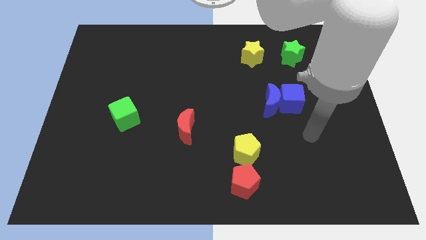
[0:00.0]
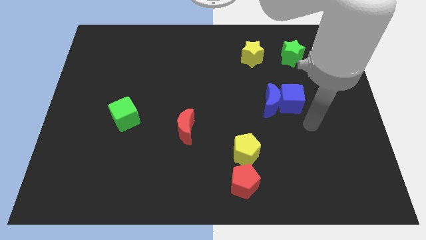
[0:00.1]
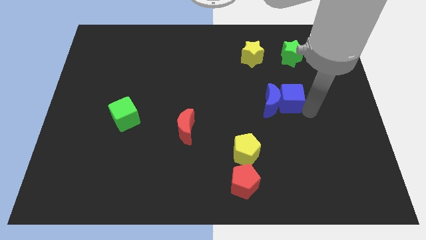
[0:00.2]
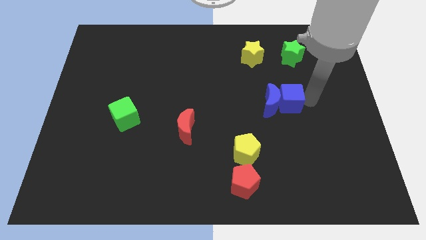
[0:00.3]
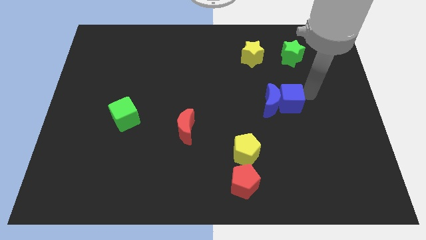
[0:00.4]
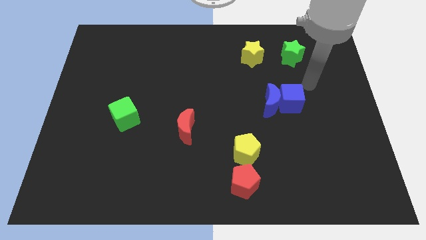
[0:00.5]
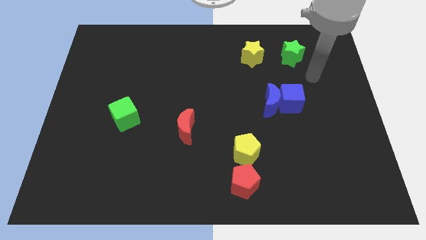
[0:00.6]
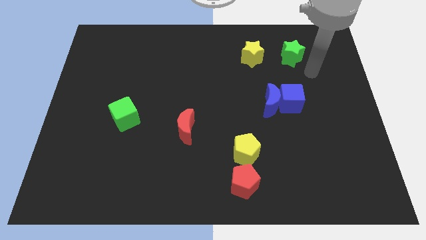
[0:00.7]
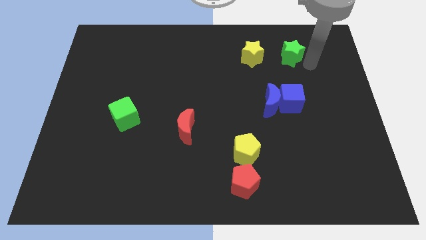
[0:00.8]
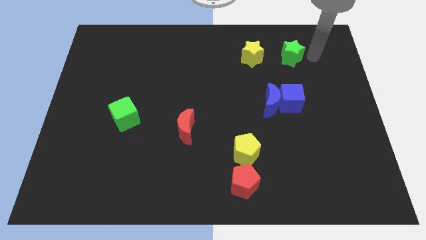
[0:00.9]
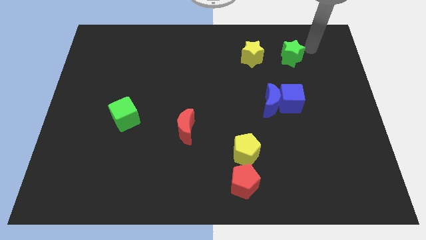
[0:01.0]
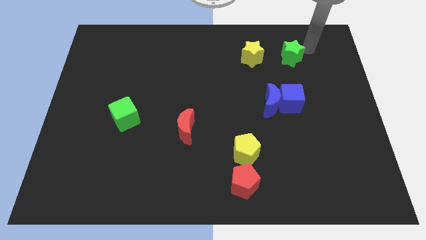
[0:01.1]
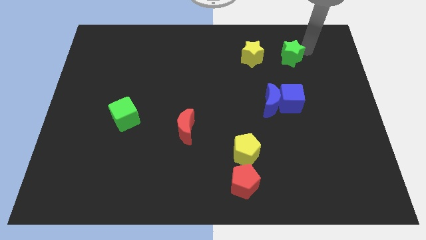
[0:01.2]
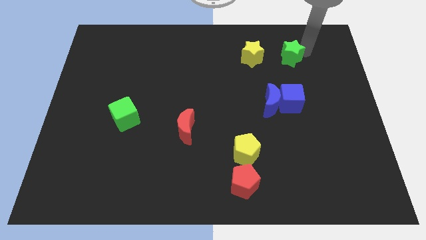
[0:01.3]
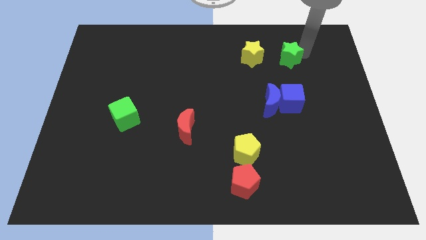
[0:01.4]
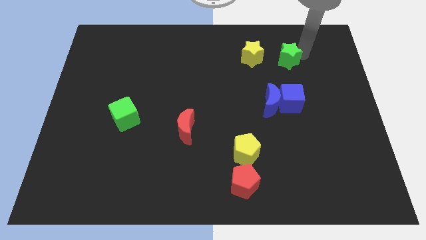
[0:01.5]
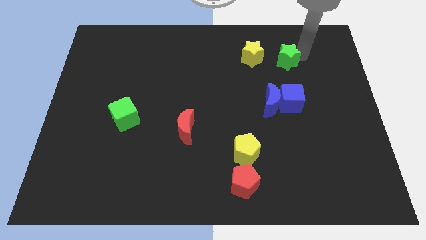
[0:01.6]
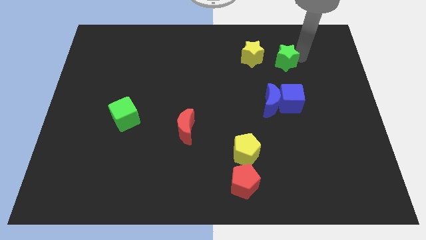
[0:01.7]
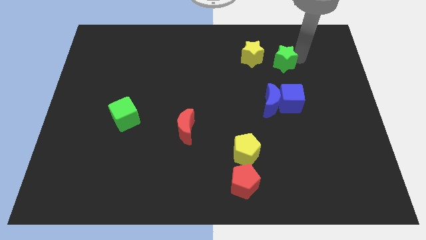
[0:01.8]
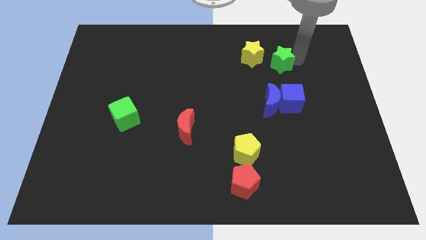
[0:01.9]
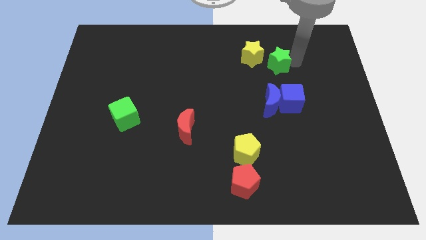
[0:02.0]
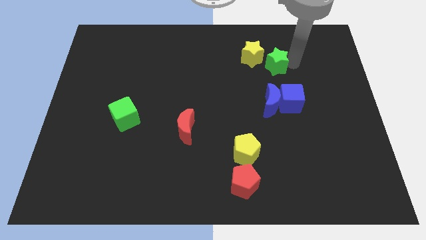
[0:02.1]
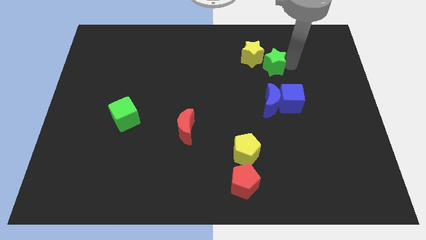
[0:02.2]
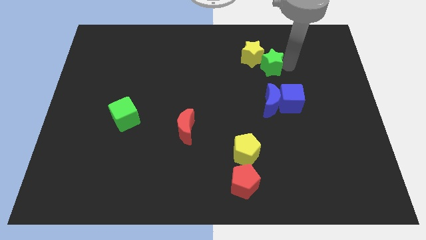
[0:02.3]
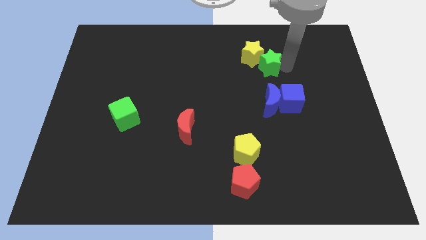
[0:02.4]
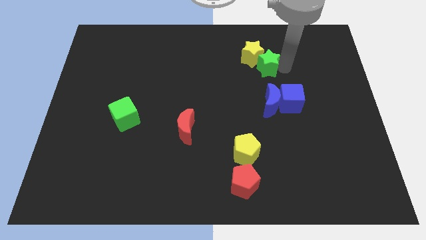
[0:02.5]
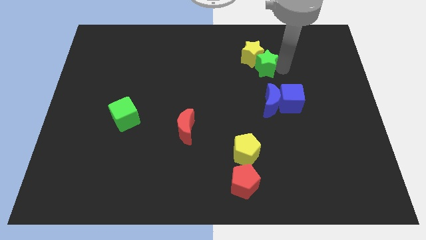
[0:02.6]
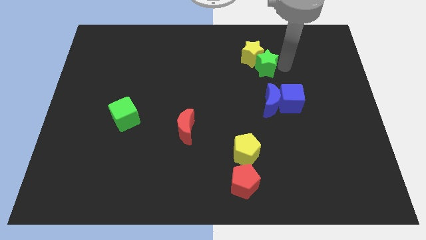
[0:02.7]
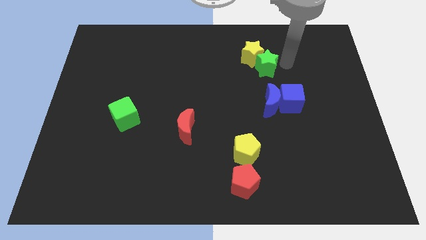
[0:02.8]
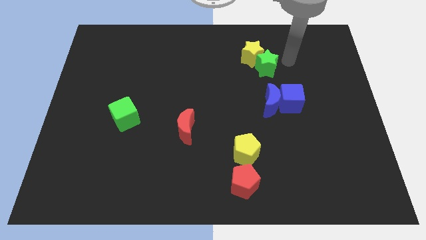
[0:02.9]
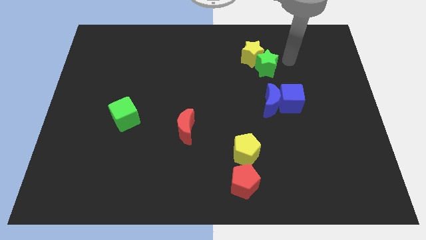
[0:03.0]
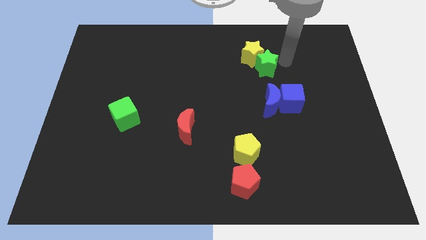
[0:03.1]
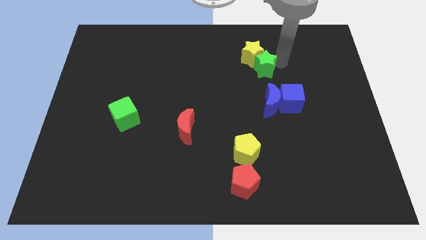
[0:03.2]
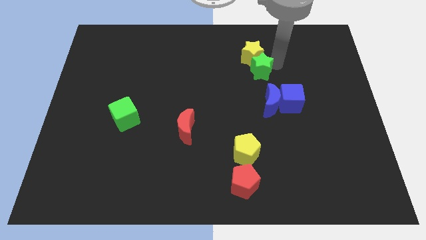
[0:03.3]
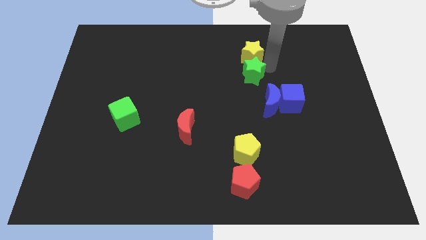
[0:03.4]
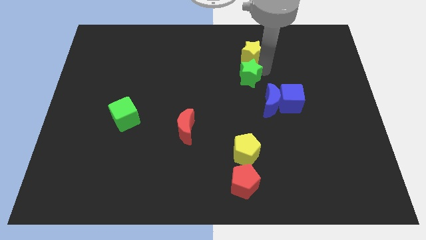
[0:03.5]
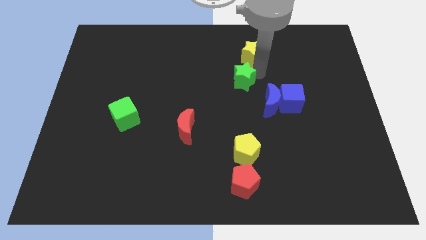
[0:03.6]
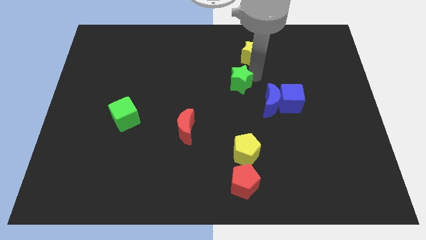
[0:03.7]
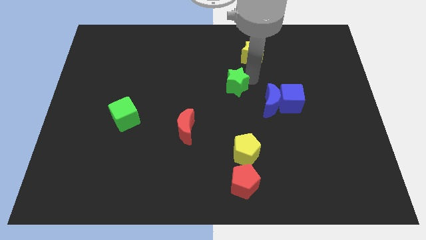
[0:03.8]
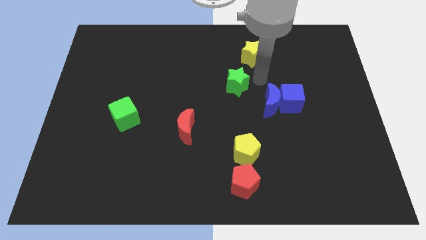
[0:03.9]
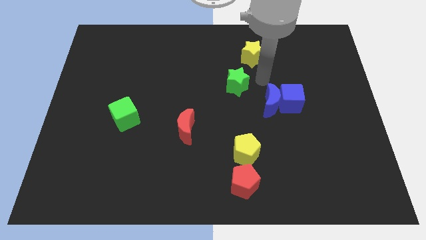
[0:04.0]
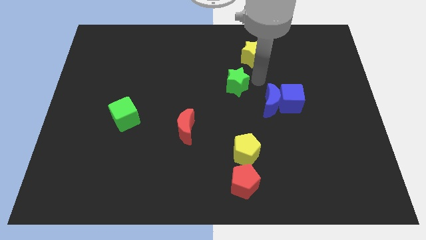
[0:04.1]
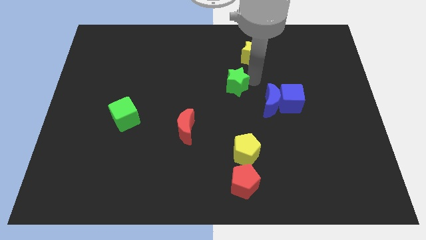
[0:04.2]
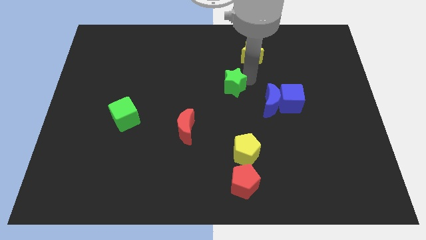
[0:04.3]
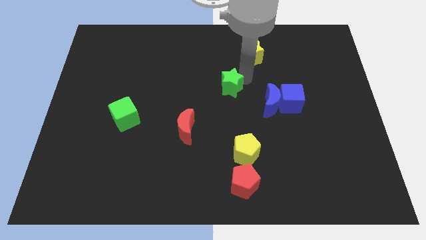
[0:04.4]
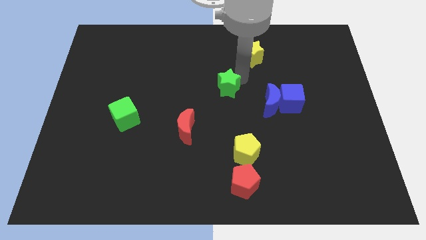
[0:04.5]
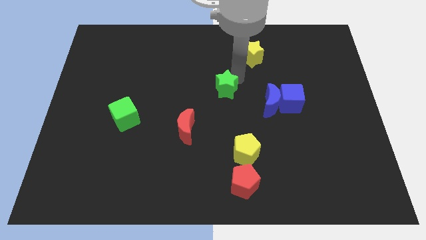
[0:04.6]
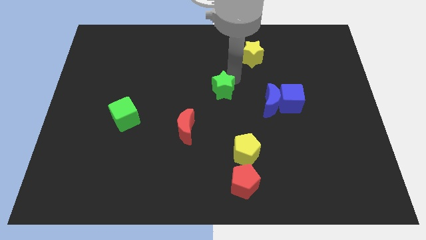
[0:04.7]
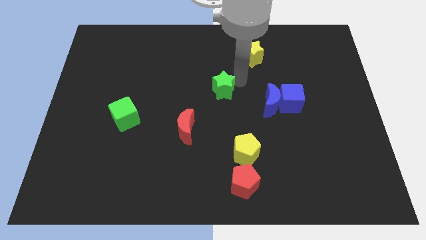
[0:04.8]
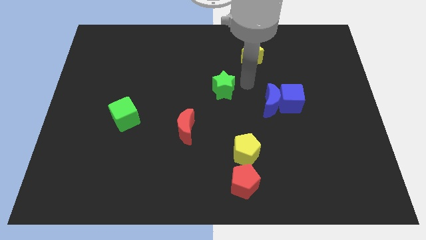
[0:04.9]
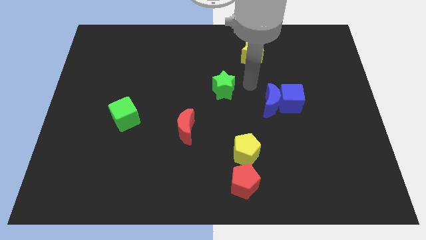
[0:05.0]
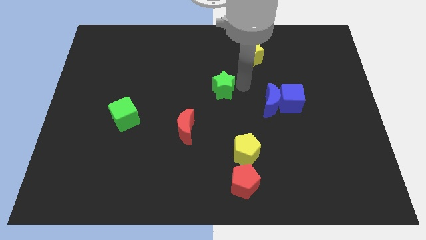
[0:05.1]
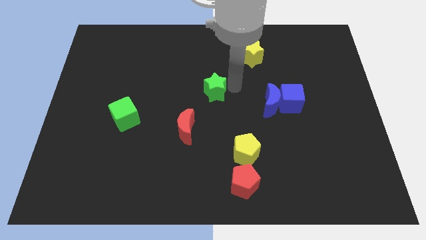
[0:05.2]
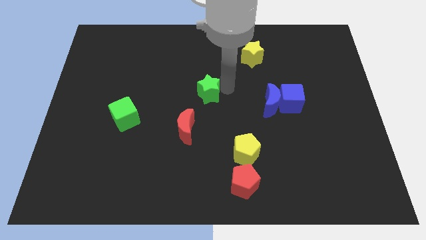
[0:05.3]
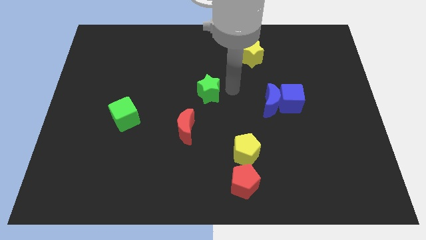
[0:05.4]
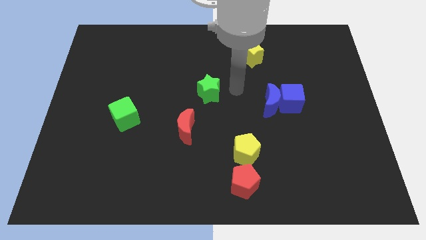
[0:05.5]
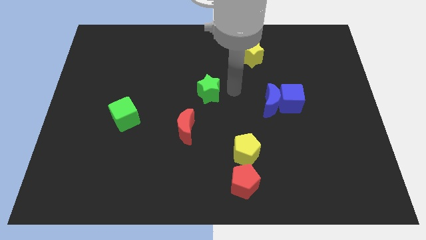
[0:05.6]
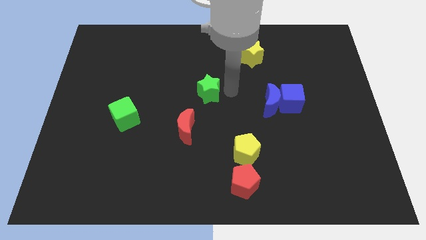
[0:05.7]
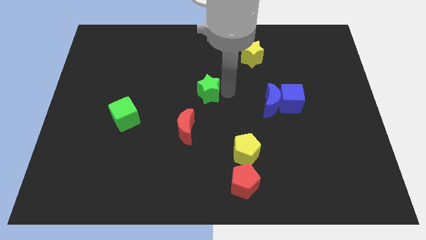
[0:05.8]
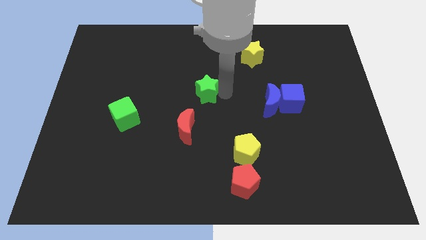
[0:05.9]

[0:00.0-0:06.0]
put the green star above the red moon

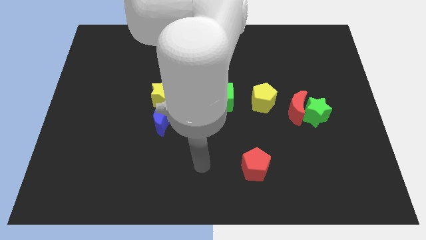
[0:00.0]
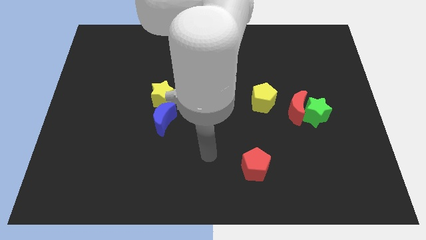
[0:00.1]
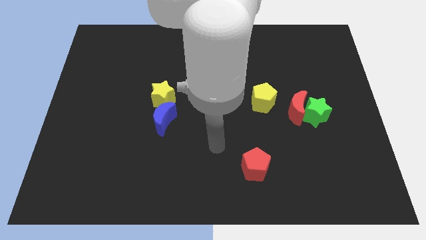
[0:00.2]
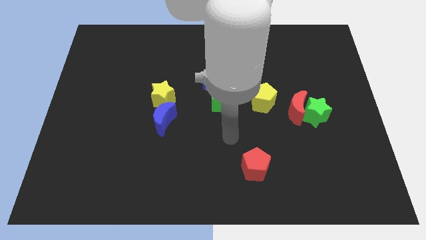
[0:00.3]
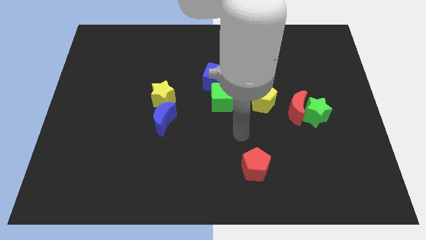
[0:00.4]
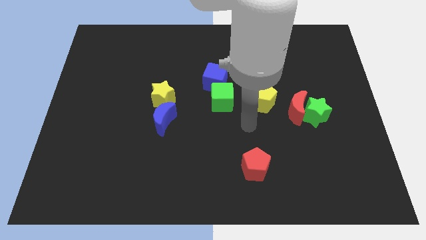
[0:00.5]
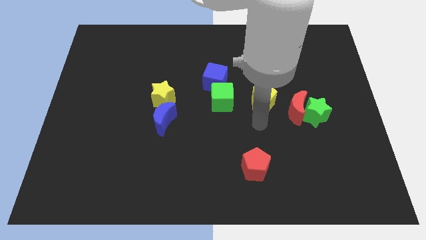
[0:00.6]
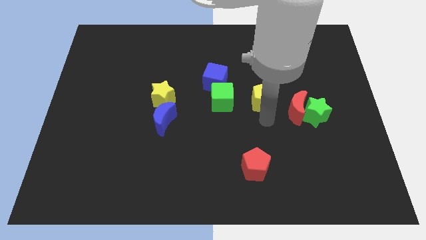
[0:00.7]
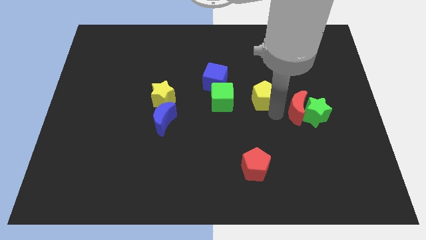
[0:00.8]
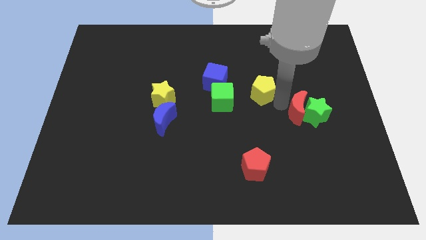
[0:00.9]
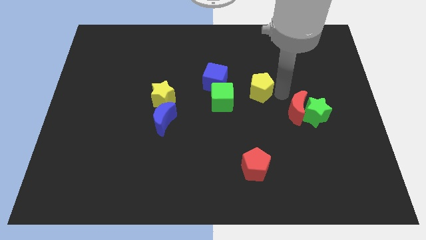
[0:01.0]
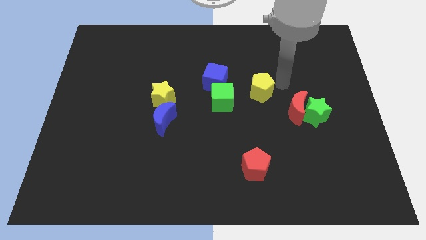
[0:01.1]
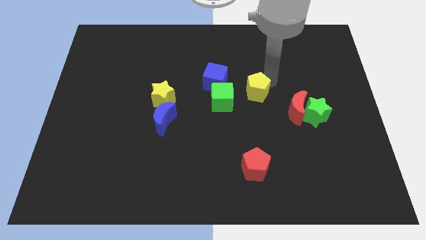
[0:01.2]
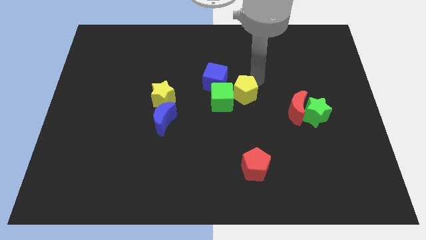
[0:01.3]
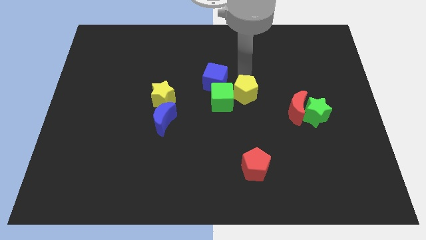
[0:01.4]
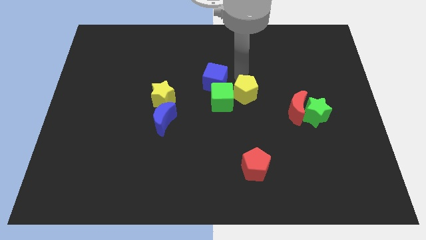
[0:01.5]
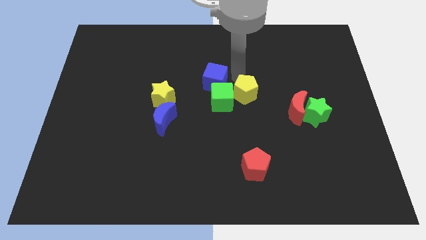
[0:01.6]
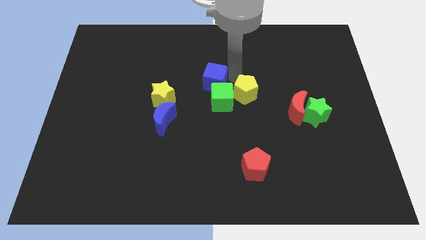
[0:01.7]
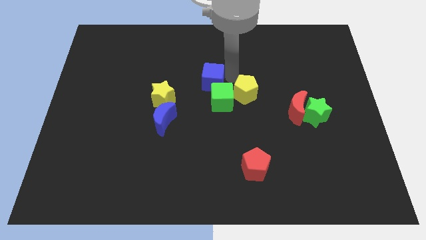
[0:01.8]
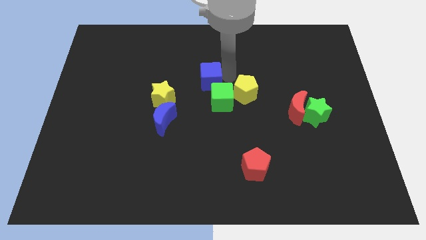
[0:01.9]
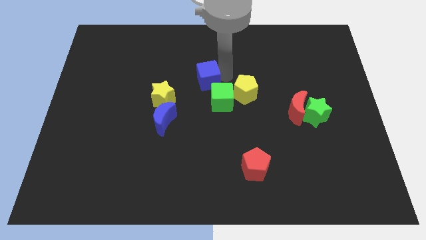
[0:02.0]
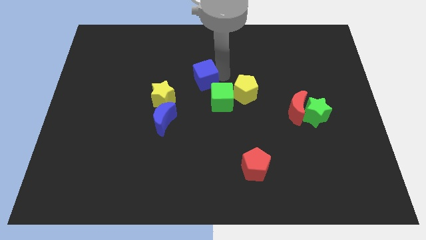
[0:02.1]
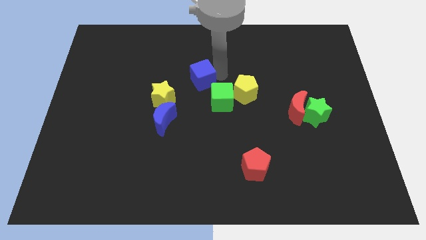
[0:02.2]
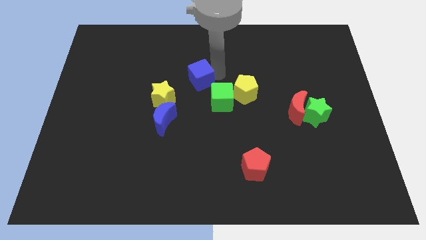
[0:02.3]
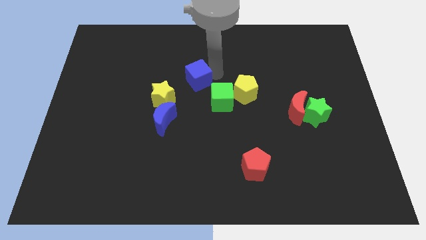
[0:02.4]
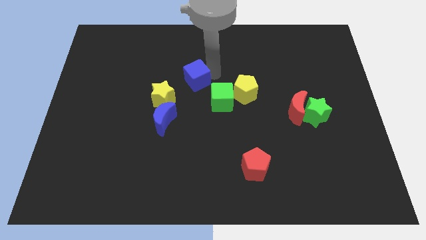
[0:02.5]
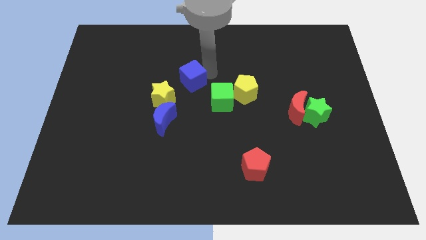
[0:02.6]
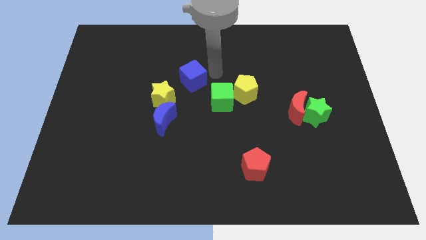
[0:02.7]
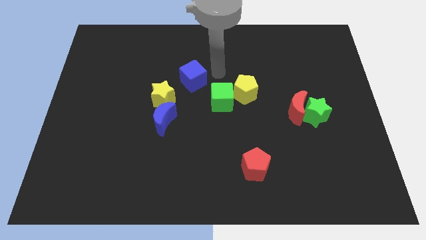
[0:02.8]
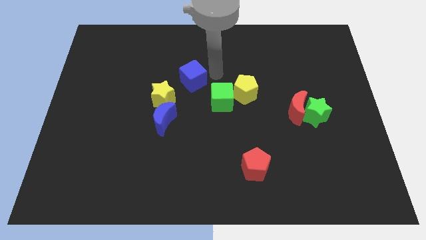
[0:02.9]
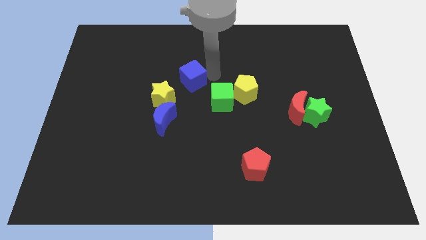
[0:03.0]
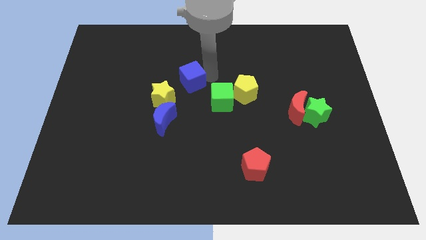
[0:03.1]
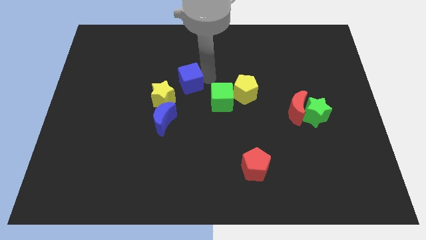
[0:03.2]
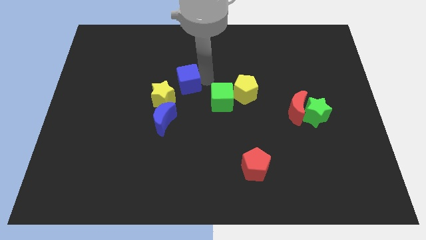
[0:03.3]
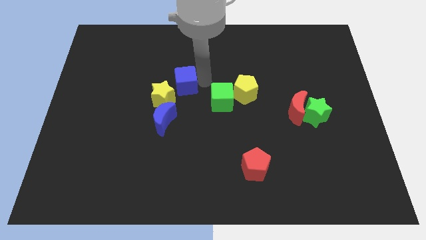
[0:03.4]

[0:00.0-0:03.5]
put the blue cube to the top of the blue moon
